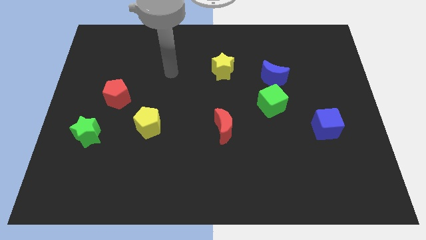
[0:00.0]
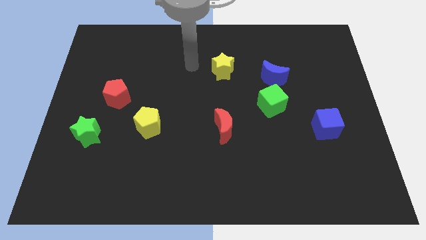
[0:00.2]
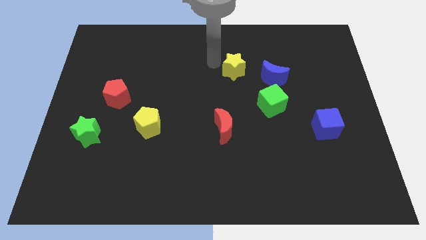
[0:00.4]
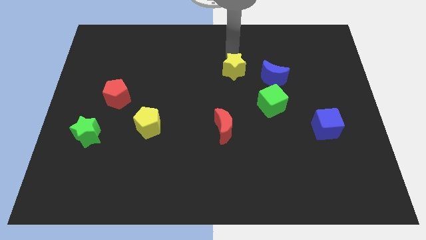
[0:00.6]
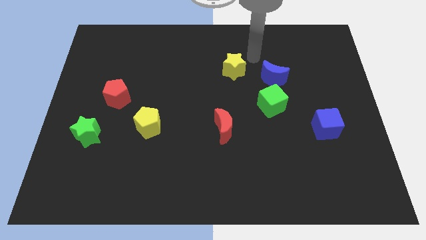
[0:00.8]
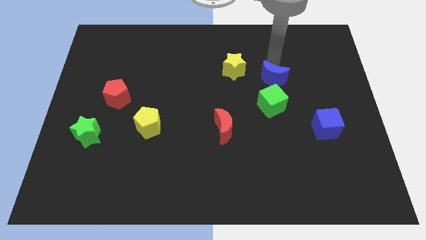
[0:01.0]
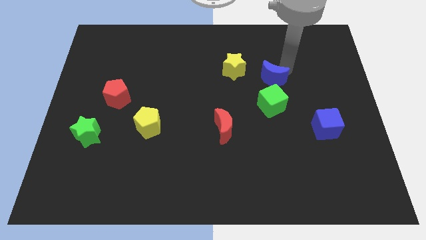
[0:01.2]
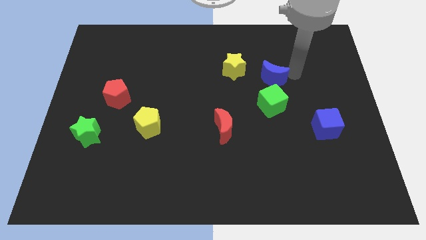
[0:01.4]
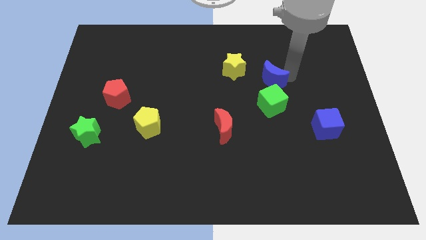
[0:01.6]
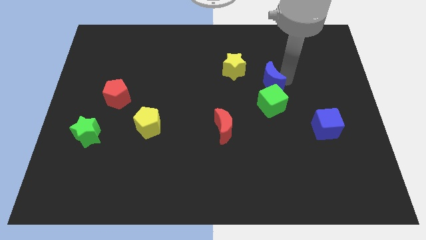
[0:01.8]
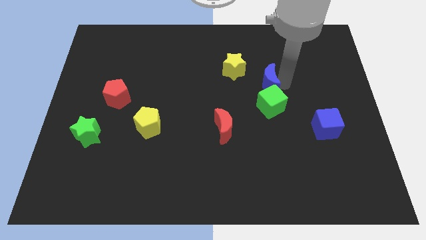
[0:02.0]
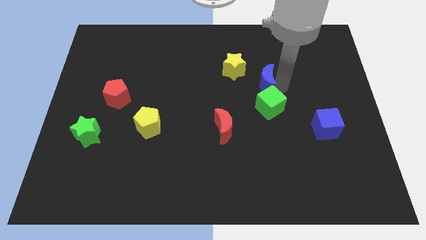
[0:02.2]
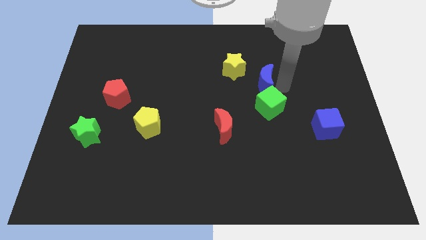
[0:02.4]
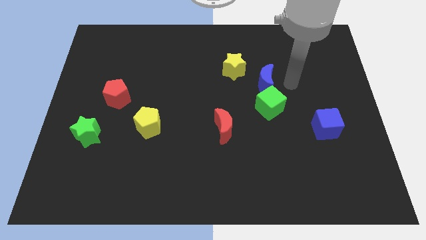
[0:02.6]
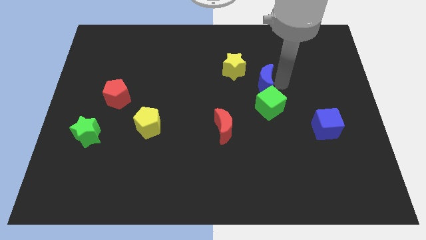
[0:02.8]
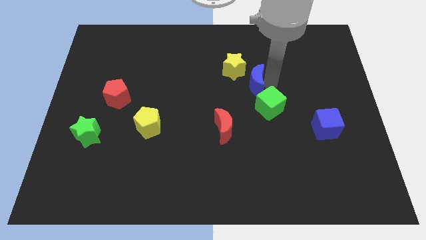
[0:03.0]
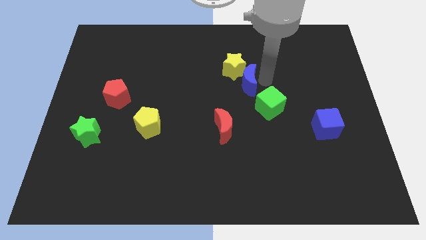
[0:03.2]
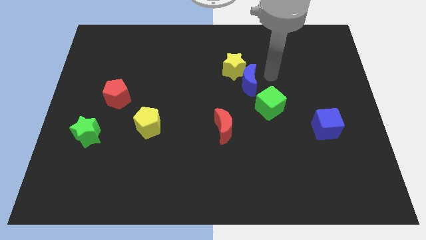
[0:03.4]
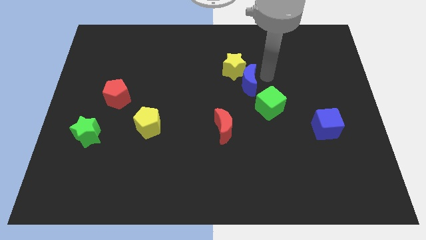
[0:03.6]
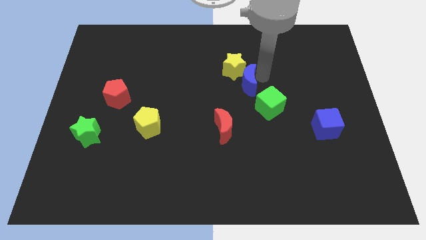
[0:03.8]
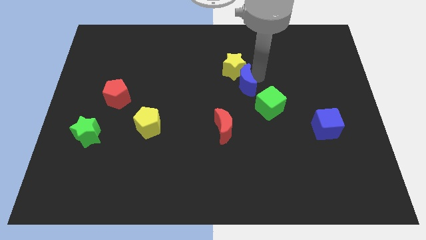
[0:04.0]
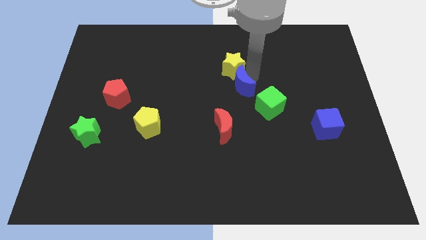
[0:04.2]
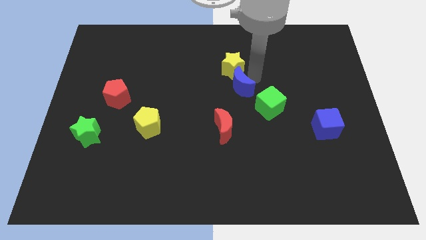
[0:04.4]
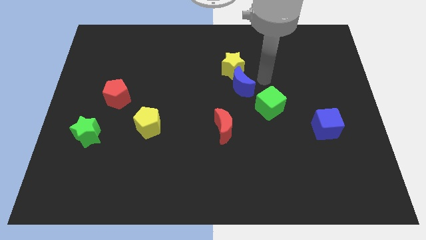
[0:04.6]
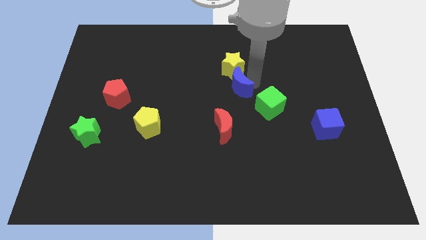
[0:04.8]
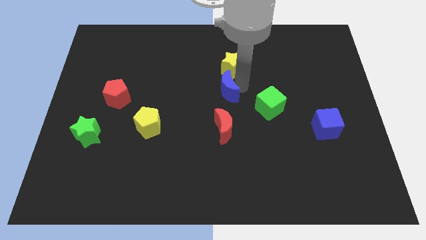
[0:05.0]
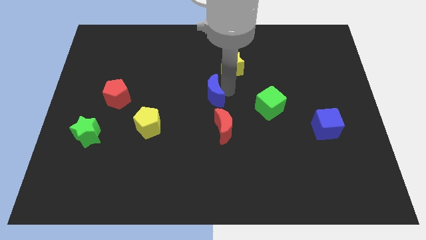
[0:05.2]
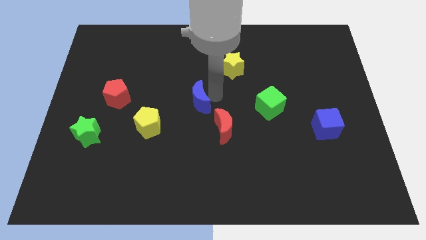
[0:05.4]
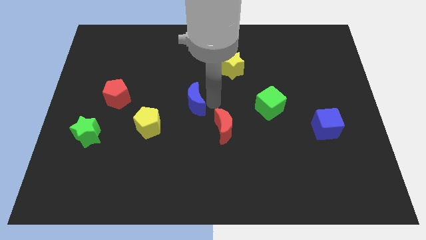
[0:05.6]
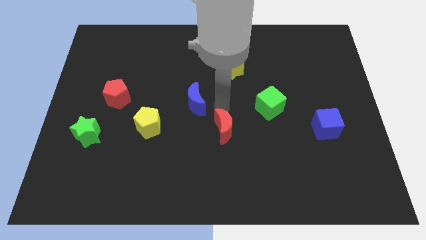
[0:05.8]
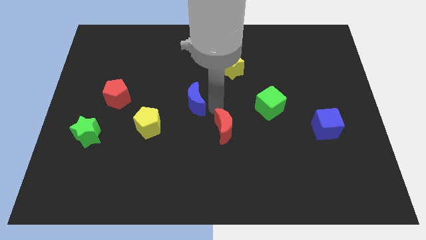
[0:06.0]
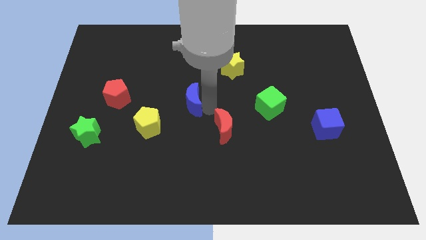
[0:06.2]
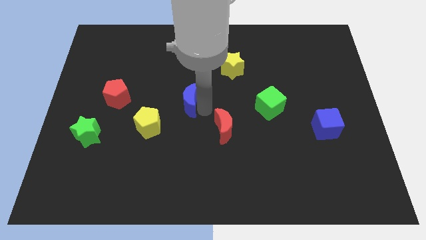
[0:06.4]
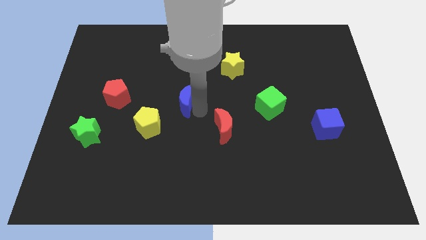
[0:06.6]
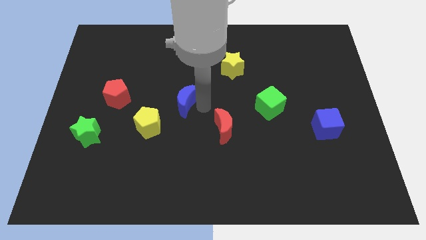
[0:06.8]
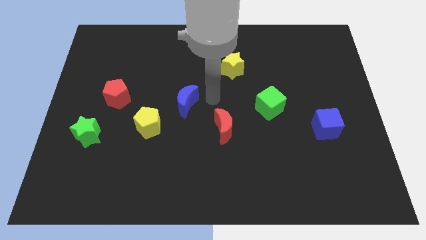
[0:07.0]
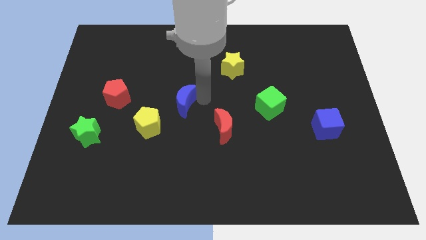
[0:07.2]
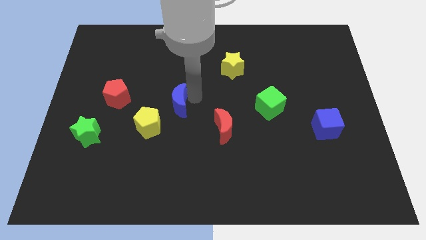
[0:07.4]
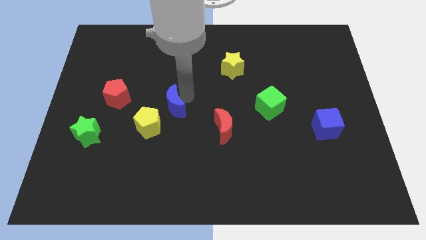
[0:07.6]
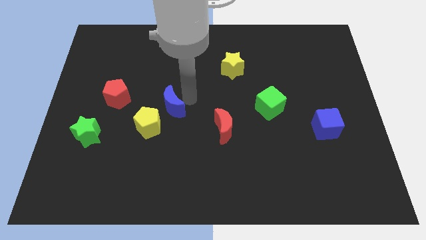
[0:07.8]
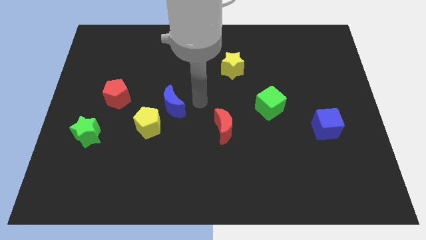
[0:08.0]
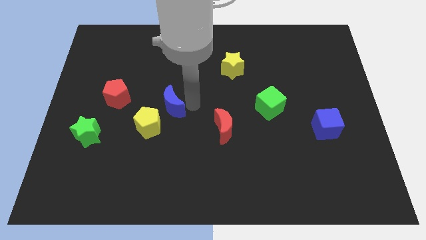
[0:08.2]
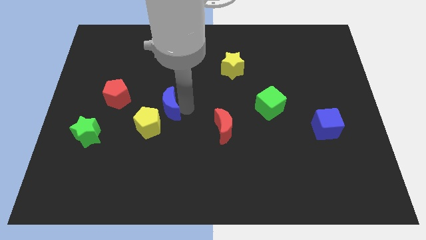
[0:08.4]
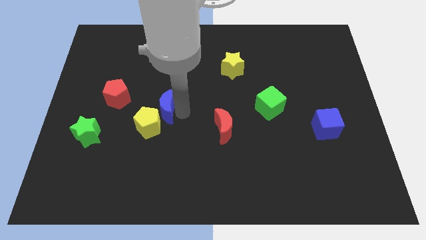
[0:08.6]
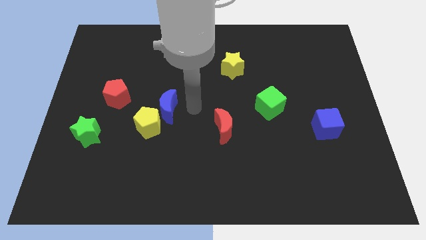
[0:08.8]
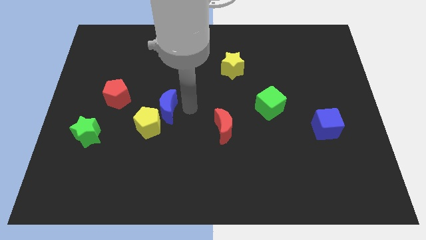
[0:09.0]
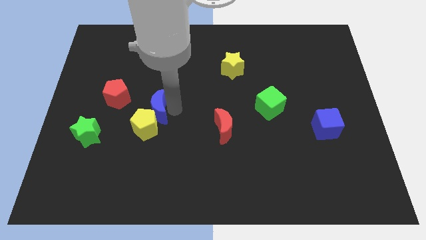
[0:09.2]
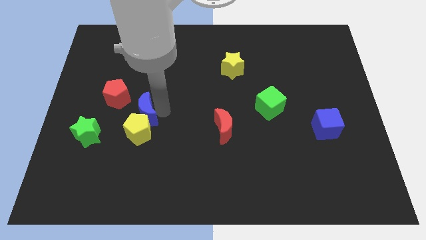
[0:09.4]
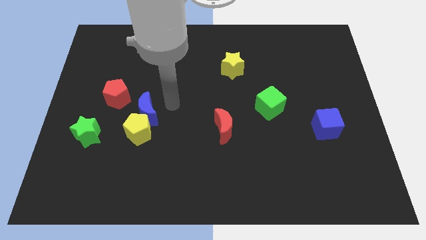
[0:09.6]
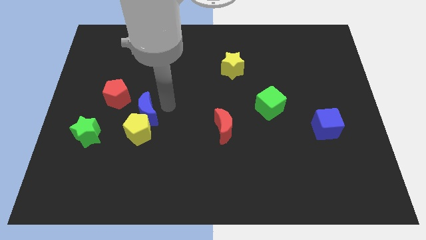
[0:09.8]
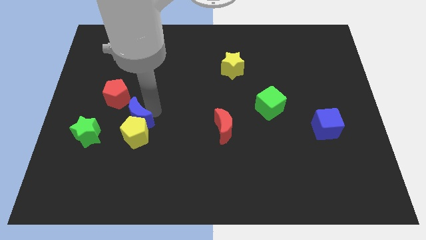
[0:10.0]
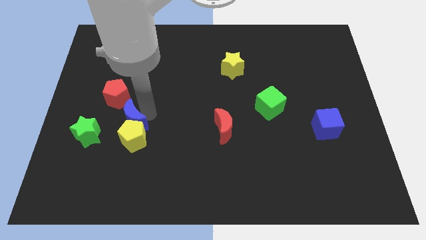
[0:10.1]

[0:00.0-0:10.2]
move the blue moon below the red pentagon

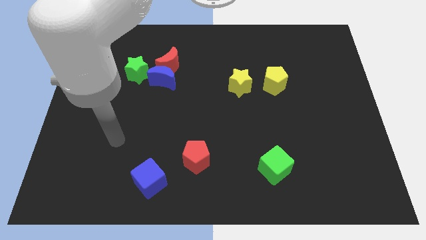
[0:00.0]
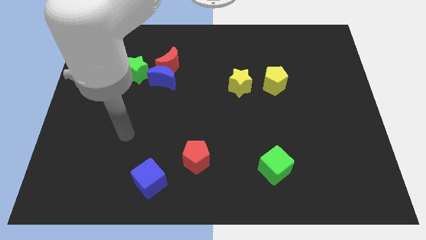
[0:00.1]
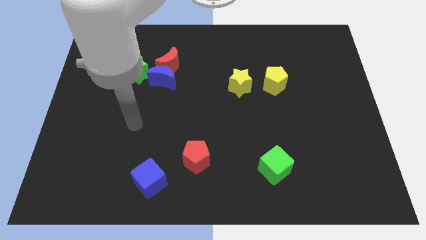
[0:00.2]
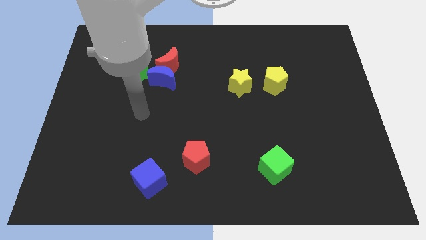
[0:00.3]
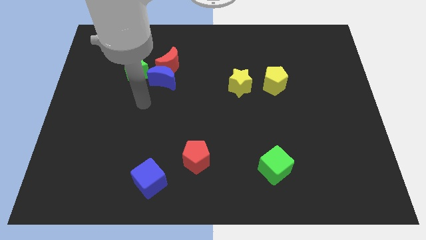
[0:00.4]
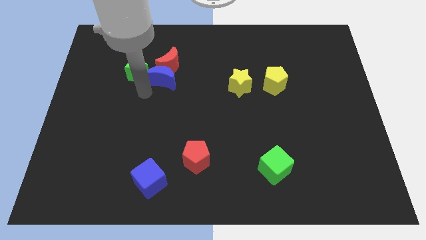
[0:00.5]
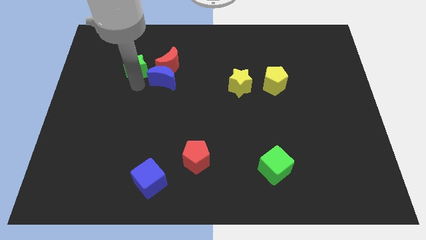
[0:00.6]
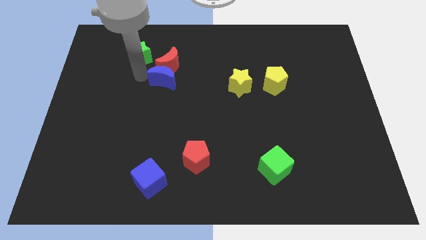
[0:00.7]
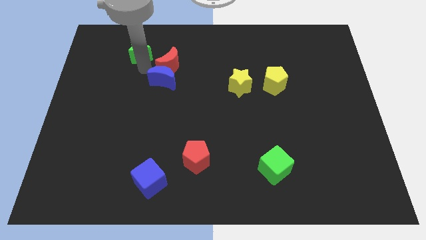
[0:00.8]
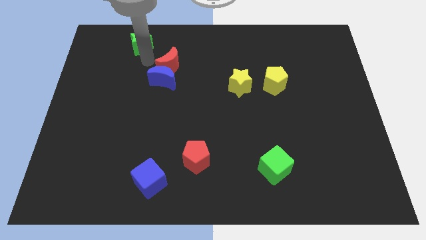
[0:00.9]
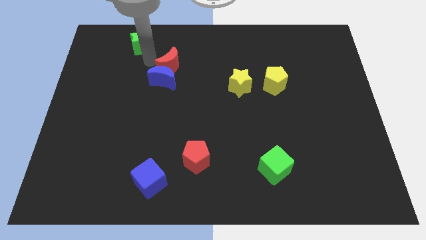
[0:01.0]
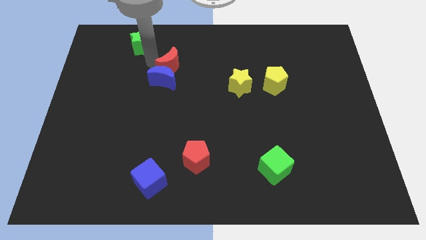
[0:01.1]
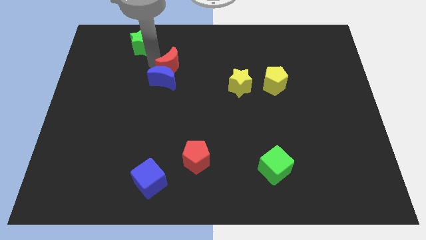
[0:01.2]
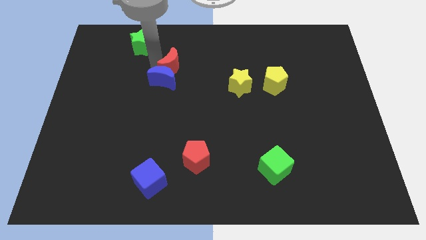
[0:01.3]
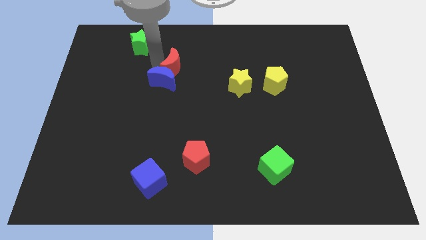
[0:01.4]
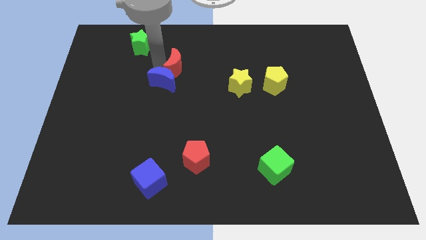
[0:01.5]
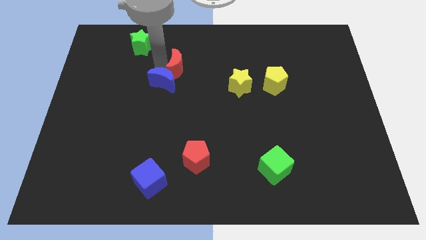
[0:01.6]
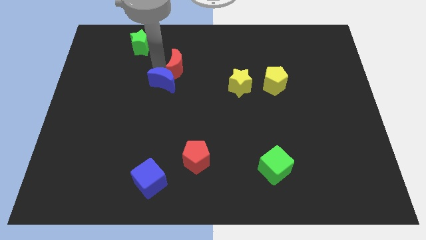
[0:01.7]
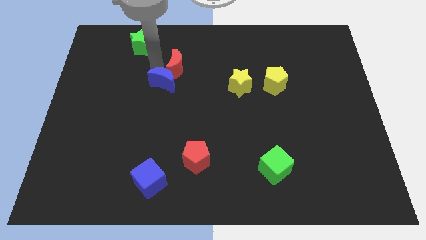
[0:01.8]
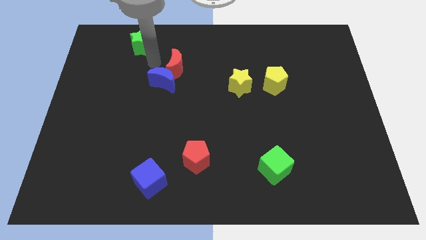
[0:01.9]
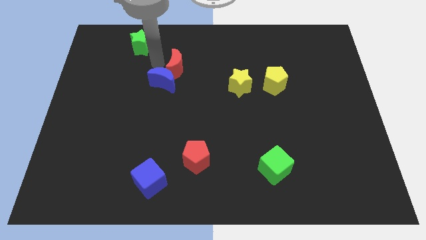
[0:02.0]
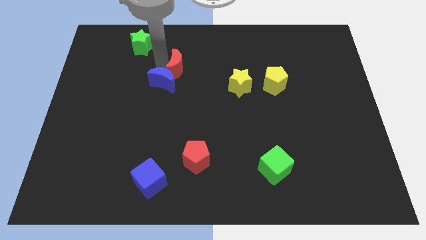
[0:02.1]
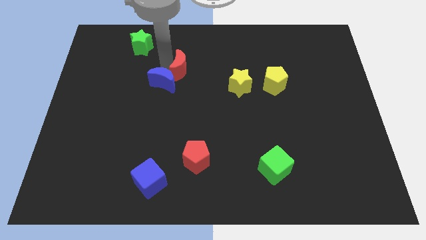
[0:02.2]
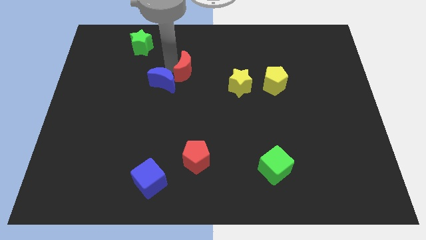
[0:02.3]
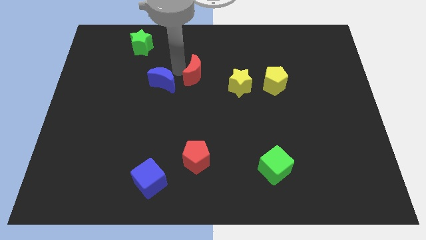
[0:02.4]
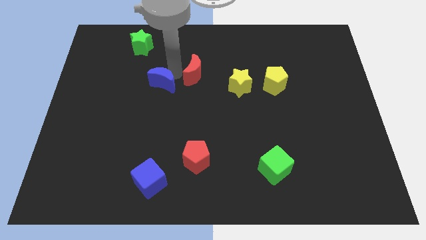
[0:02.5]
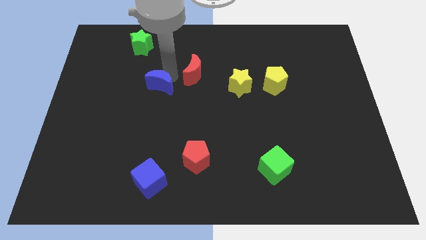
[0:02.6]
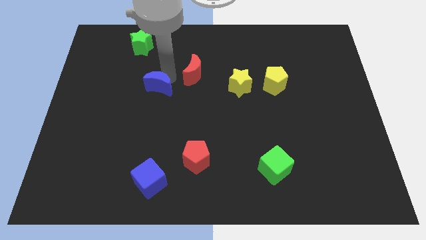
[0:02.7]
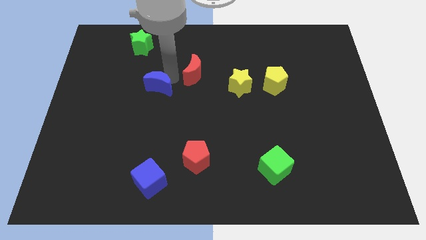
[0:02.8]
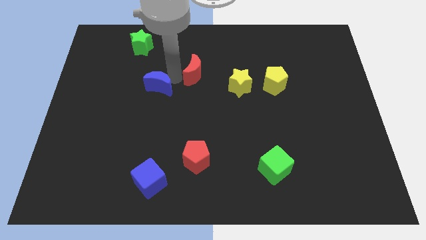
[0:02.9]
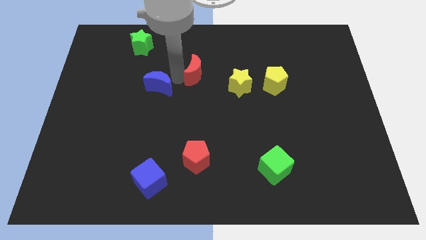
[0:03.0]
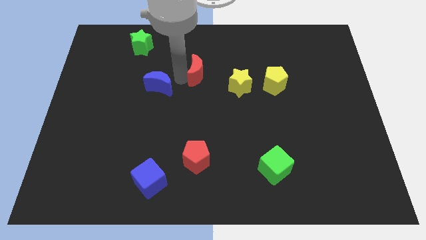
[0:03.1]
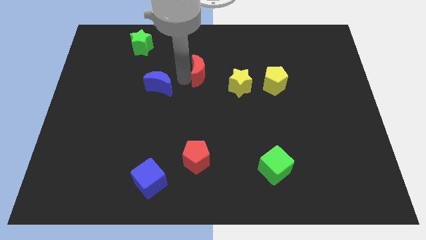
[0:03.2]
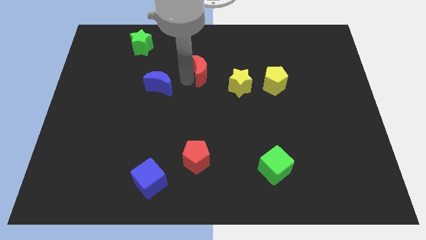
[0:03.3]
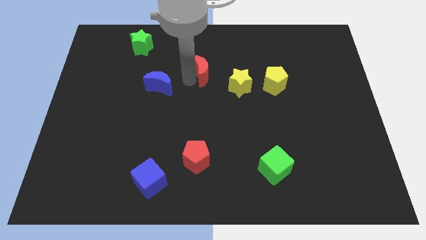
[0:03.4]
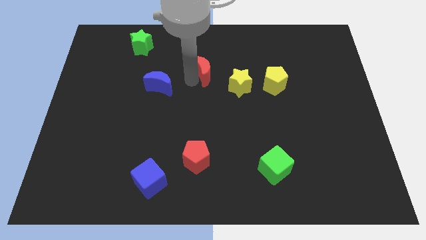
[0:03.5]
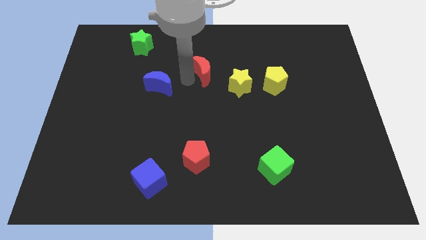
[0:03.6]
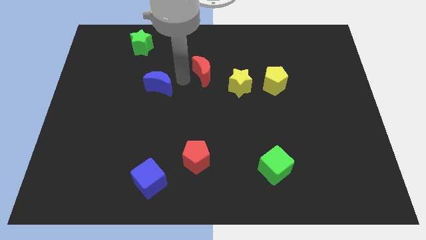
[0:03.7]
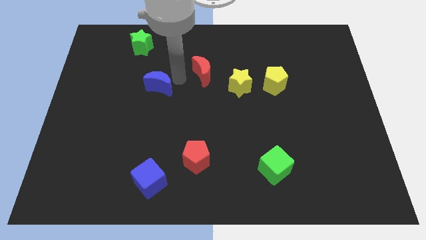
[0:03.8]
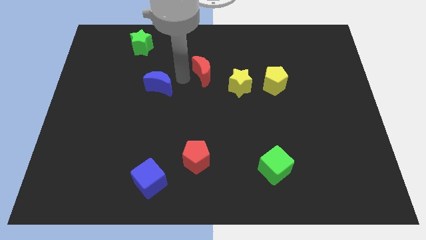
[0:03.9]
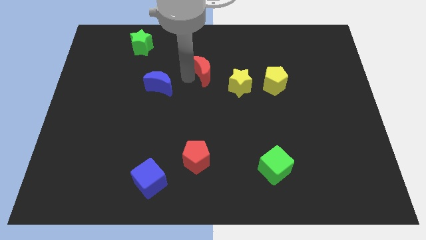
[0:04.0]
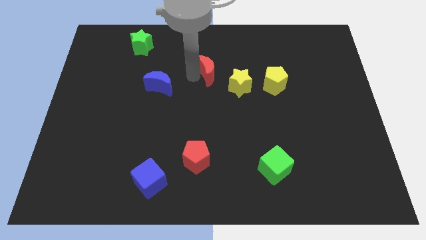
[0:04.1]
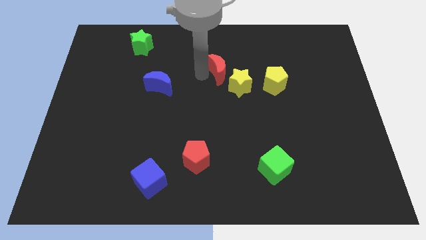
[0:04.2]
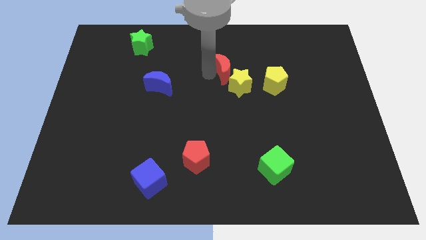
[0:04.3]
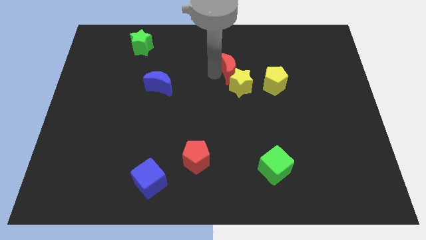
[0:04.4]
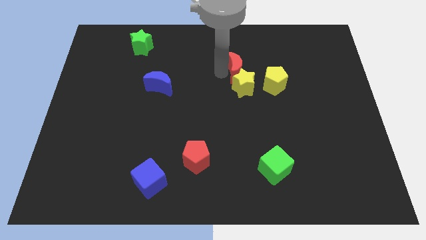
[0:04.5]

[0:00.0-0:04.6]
slide the red moon to the top left of the yellow pentagon
